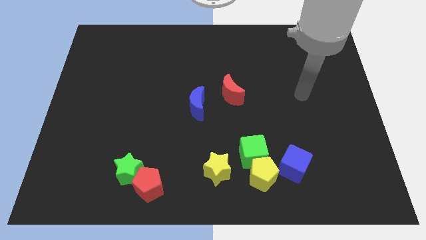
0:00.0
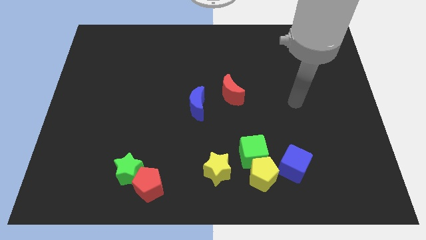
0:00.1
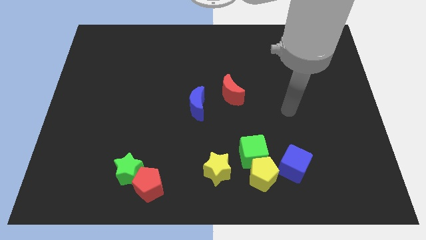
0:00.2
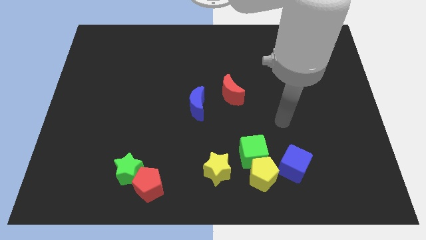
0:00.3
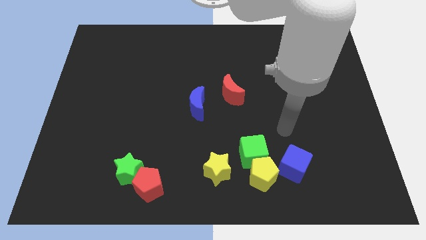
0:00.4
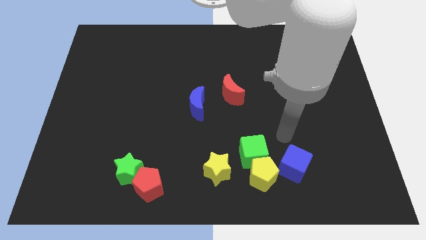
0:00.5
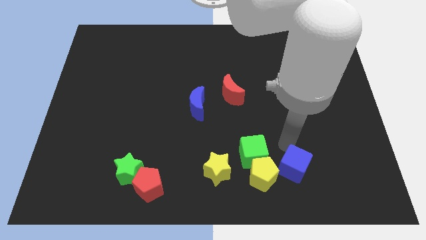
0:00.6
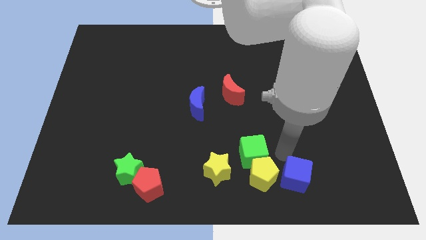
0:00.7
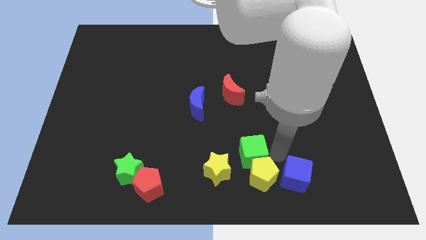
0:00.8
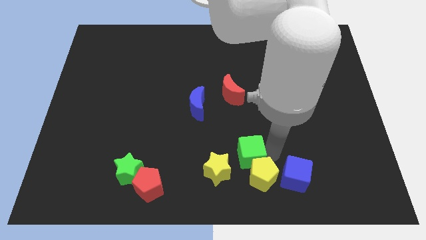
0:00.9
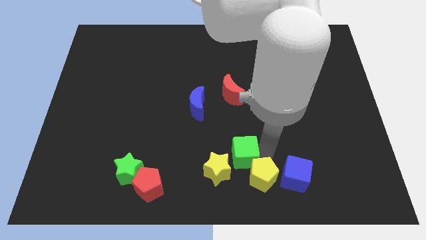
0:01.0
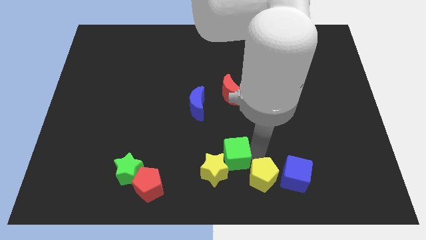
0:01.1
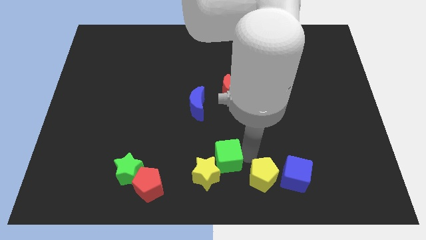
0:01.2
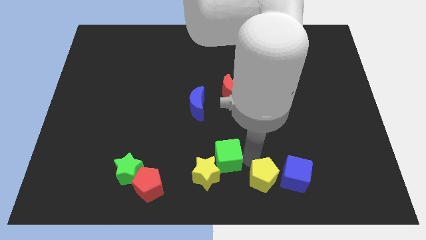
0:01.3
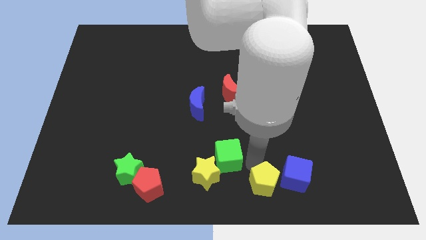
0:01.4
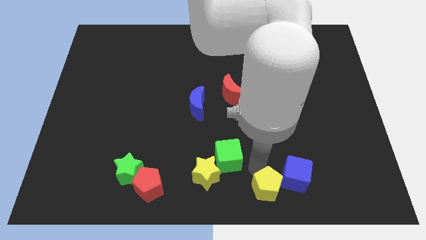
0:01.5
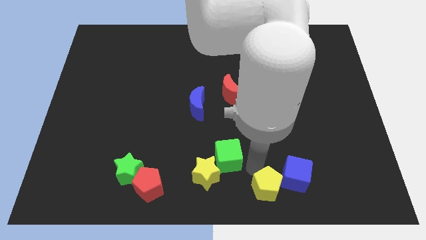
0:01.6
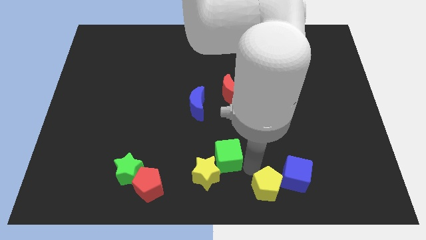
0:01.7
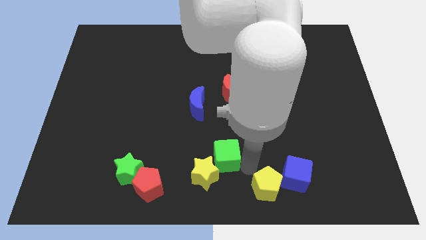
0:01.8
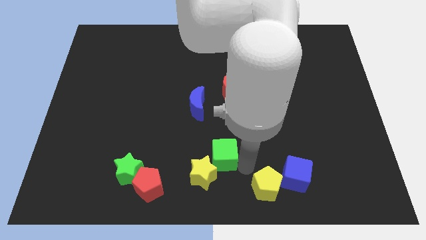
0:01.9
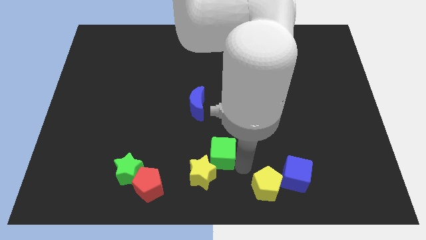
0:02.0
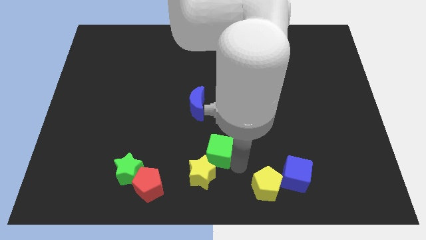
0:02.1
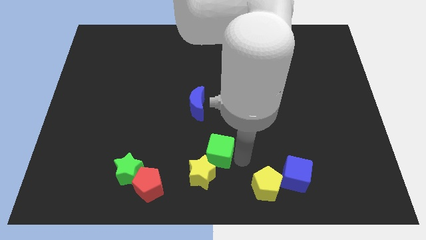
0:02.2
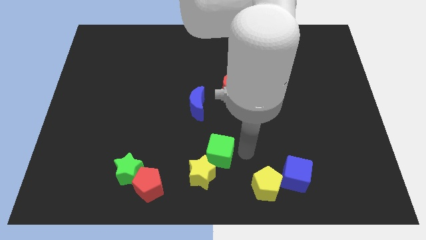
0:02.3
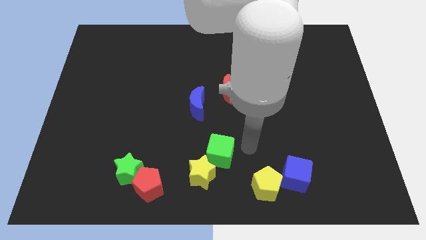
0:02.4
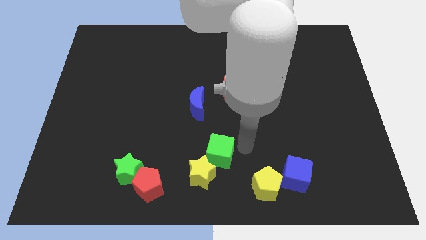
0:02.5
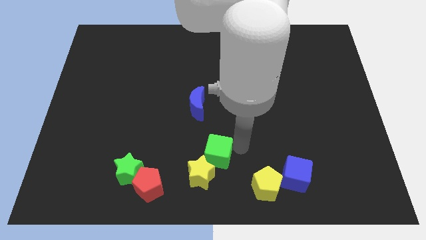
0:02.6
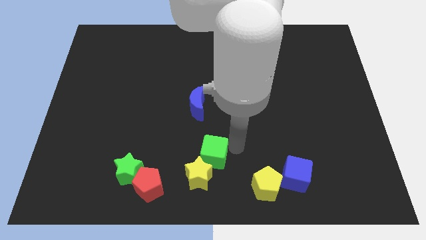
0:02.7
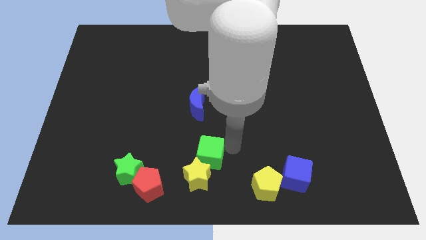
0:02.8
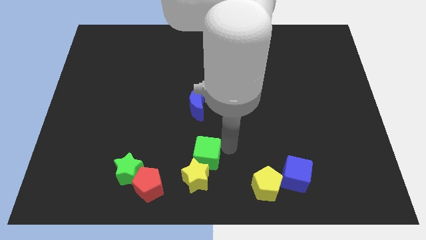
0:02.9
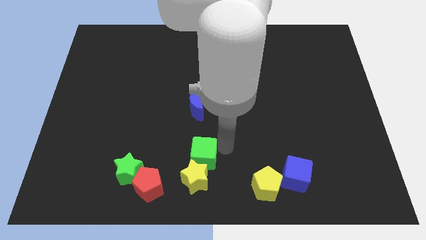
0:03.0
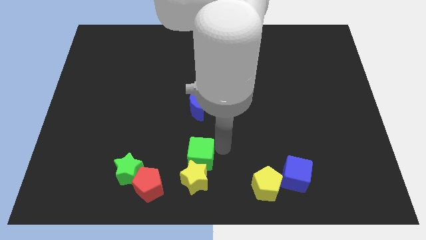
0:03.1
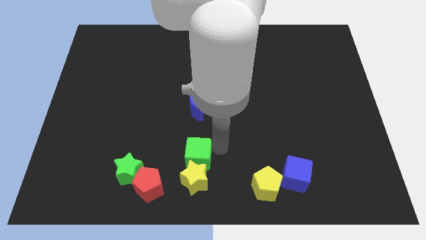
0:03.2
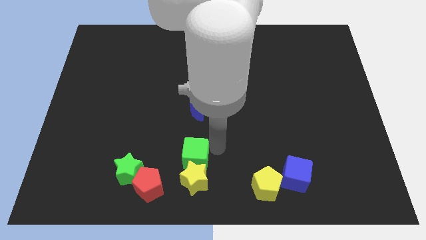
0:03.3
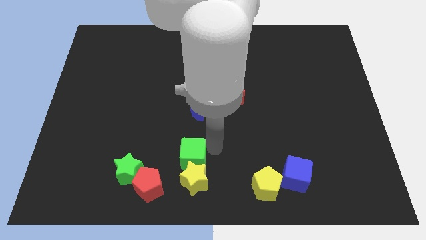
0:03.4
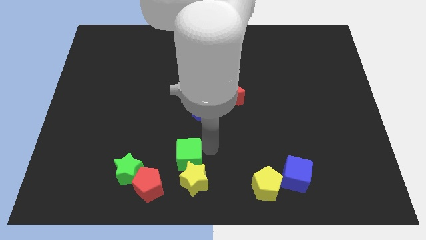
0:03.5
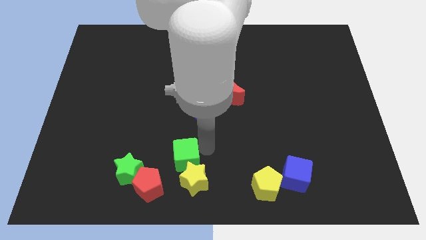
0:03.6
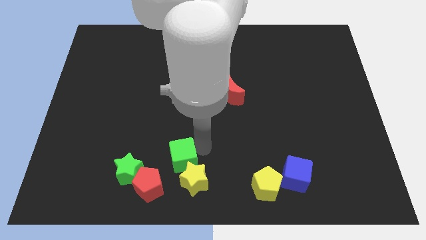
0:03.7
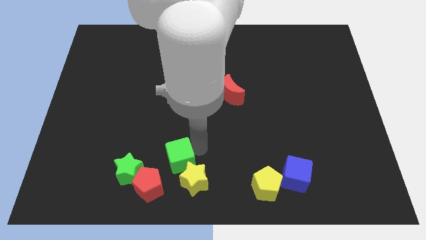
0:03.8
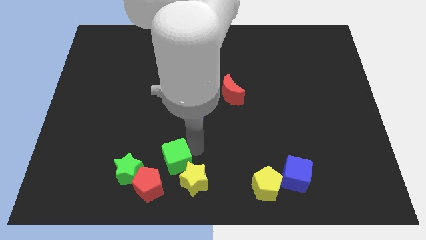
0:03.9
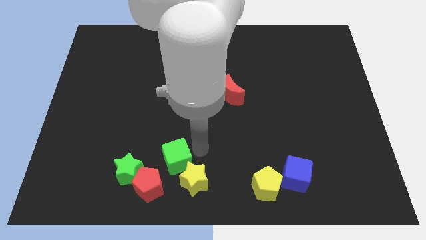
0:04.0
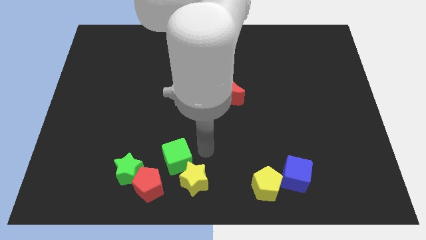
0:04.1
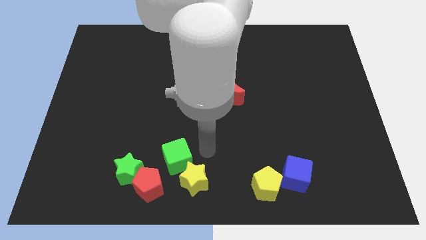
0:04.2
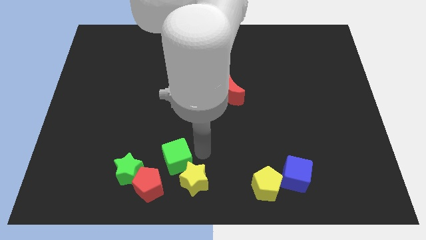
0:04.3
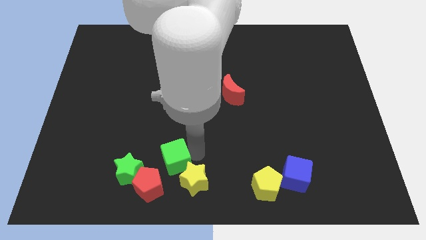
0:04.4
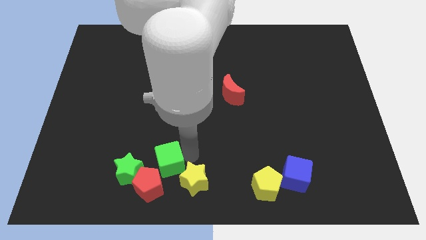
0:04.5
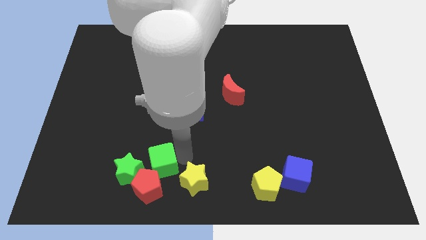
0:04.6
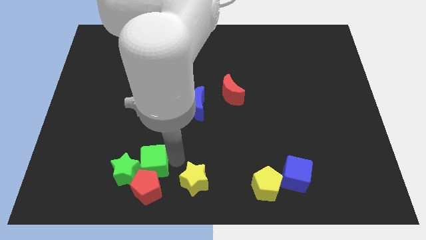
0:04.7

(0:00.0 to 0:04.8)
slide the green cube close to the green star

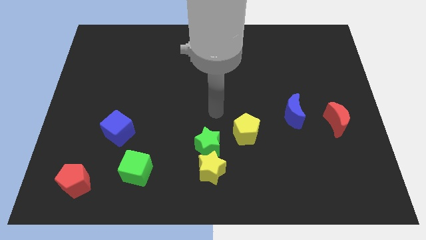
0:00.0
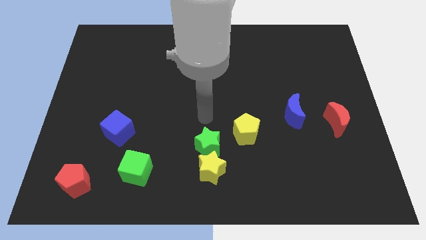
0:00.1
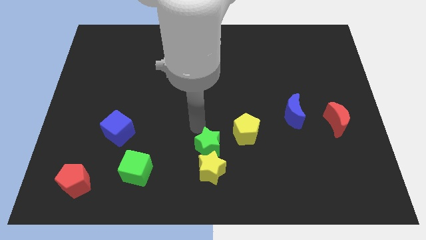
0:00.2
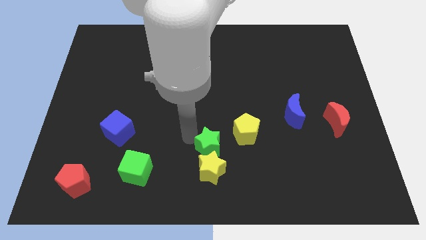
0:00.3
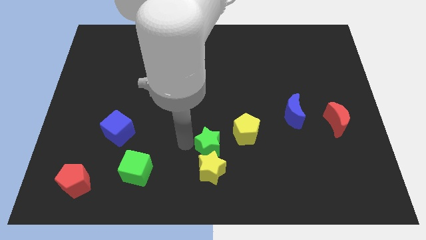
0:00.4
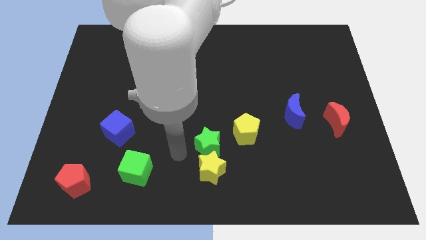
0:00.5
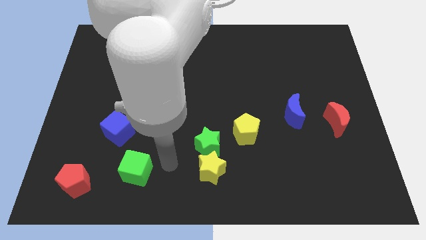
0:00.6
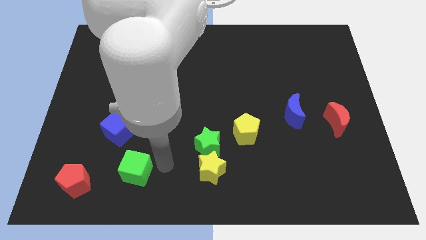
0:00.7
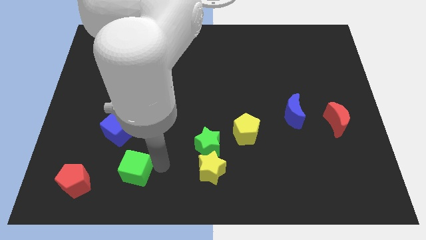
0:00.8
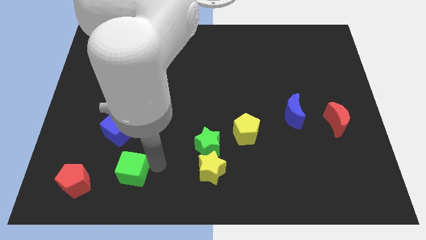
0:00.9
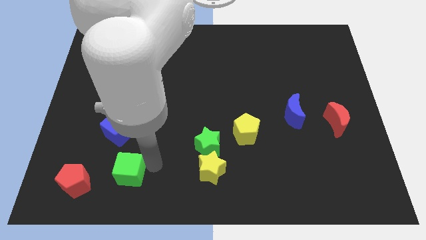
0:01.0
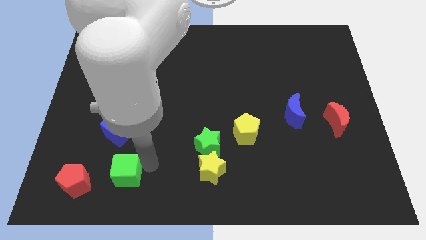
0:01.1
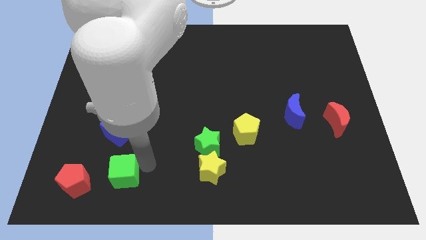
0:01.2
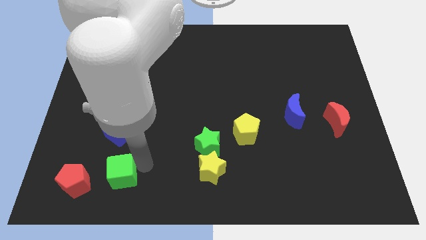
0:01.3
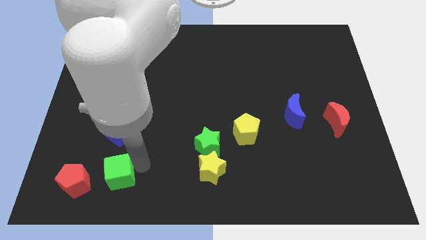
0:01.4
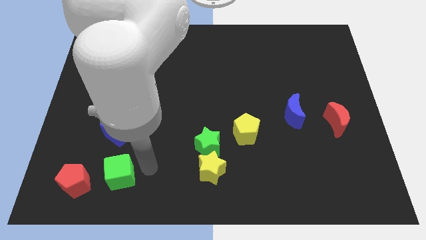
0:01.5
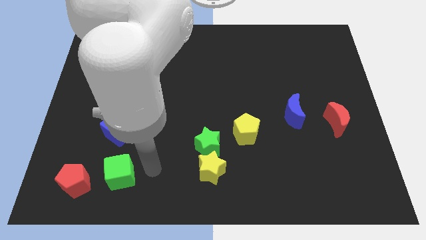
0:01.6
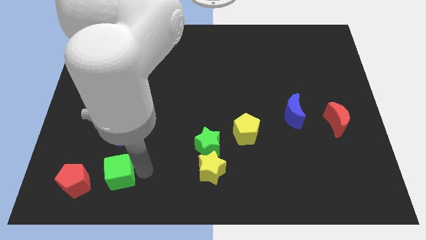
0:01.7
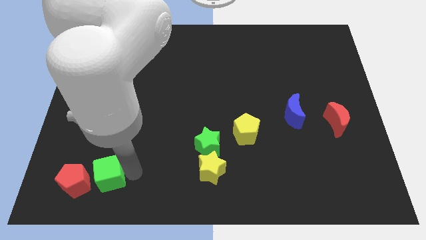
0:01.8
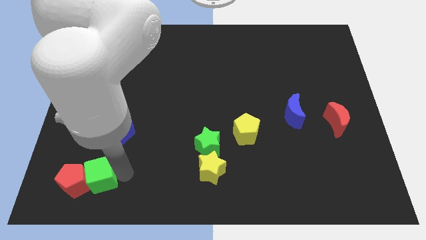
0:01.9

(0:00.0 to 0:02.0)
push the green cube next to the red pentagon

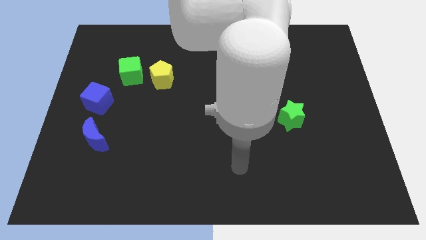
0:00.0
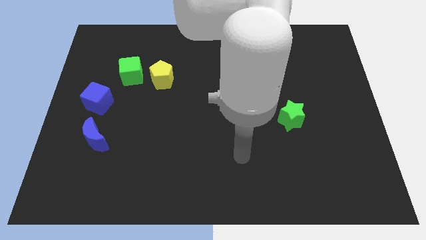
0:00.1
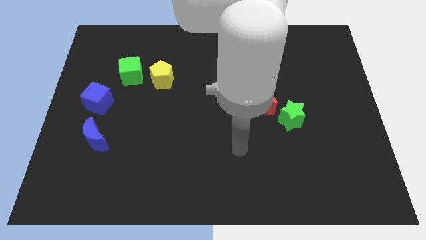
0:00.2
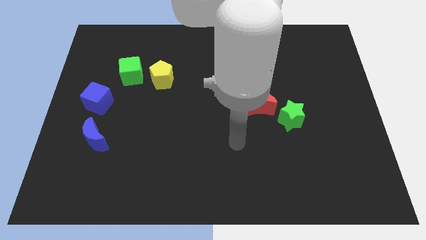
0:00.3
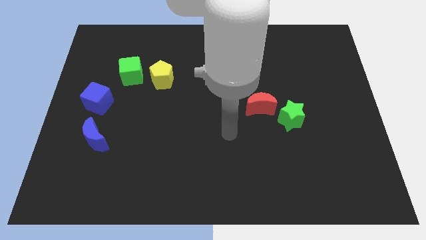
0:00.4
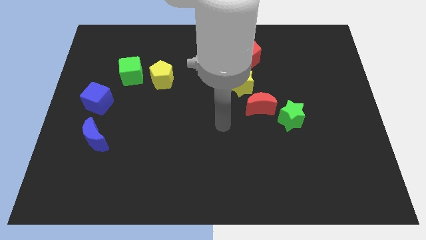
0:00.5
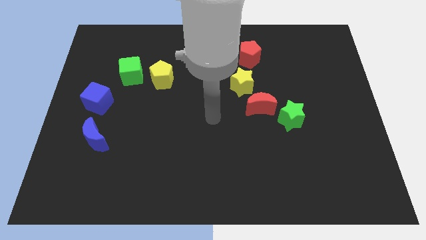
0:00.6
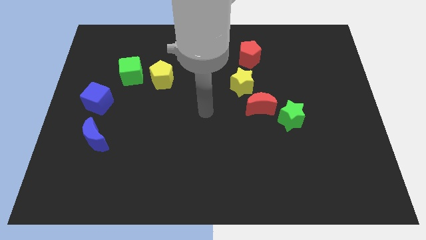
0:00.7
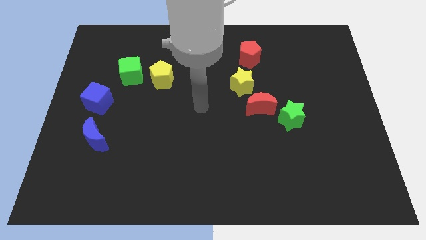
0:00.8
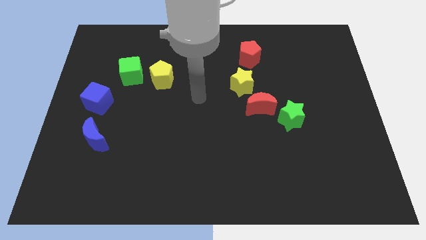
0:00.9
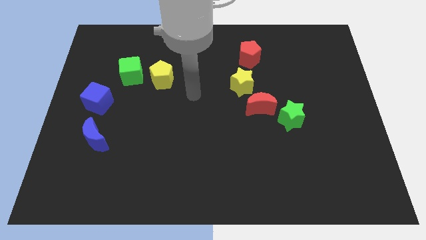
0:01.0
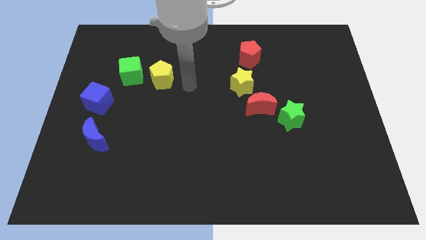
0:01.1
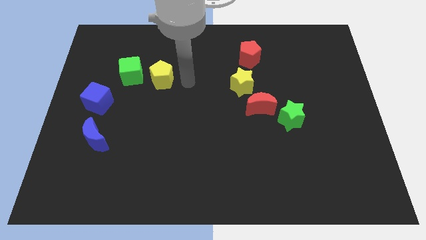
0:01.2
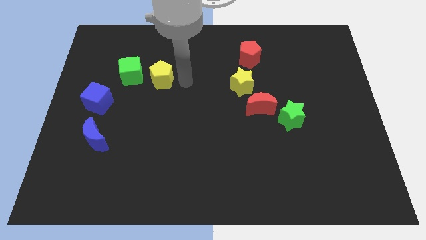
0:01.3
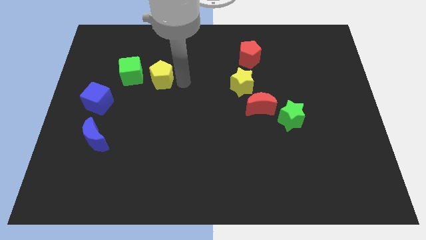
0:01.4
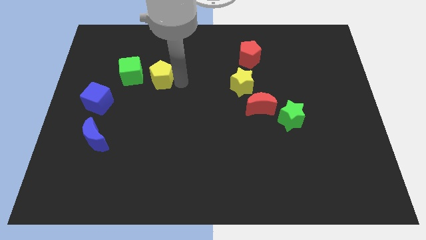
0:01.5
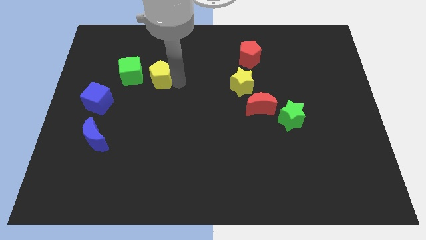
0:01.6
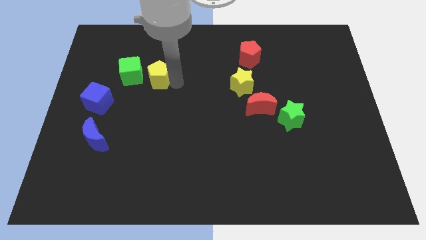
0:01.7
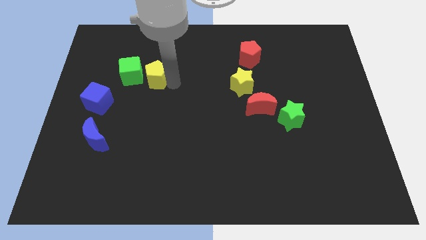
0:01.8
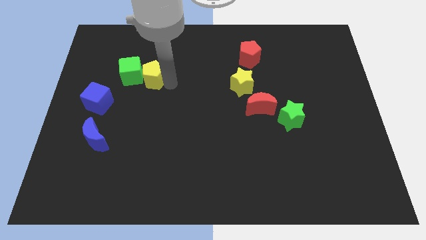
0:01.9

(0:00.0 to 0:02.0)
slide the yellow pentagon close to the green cube
